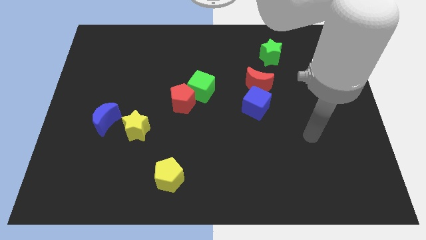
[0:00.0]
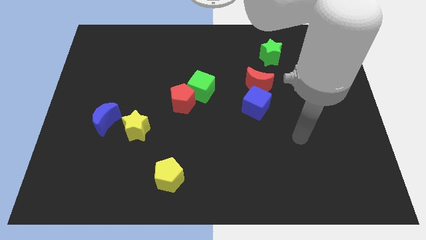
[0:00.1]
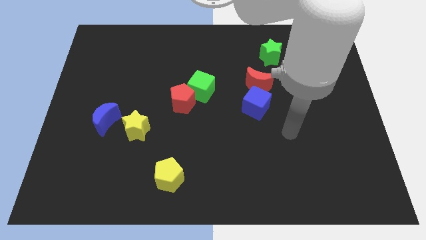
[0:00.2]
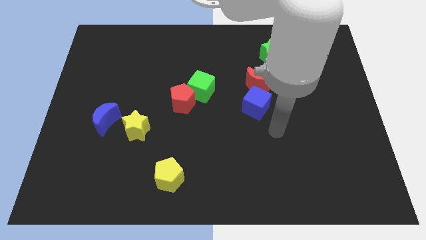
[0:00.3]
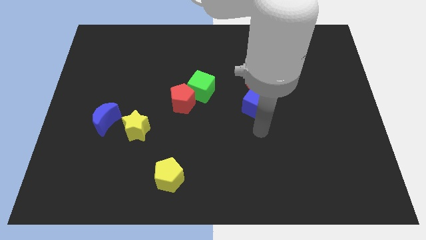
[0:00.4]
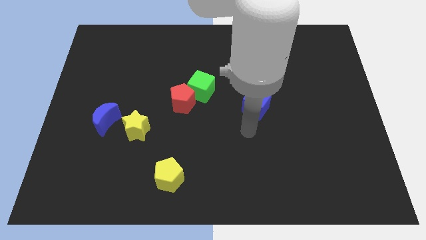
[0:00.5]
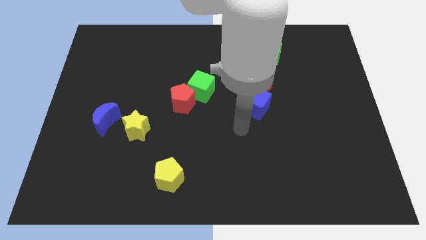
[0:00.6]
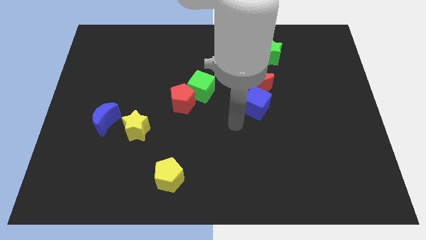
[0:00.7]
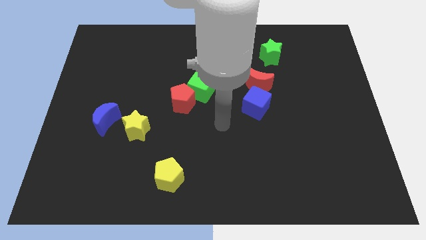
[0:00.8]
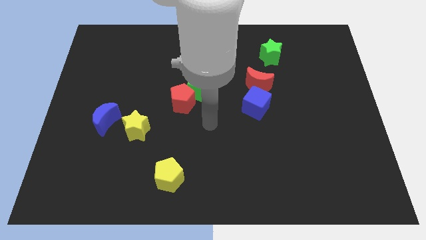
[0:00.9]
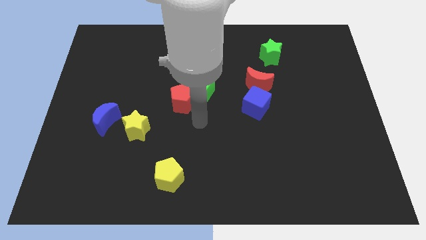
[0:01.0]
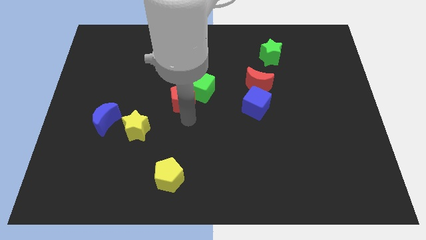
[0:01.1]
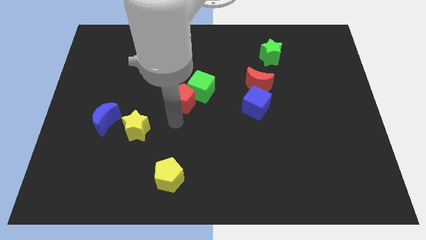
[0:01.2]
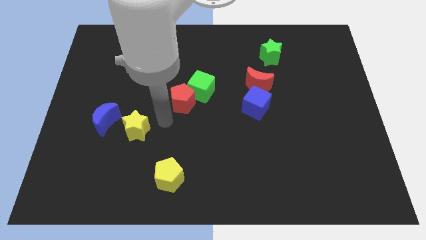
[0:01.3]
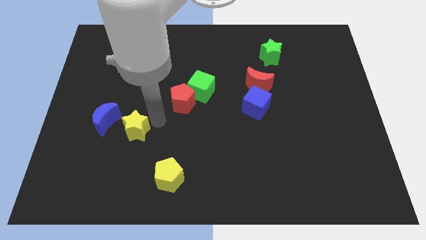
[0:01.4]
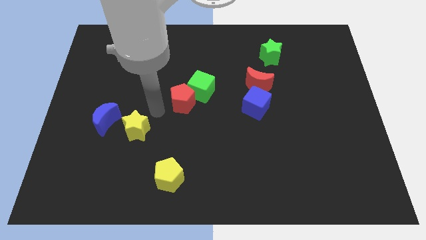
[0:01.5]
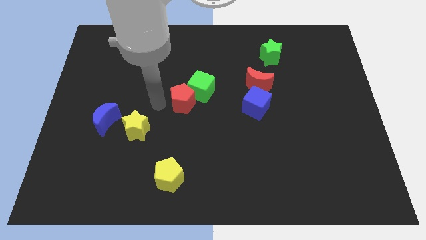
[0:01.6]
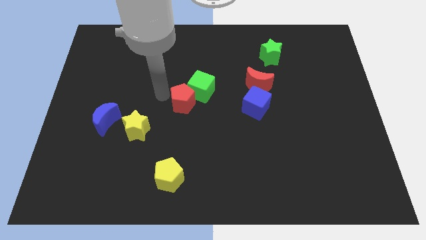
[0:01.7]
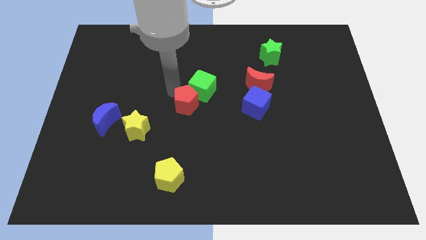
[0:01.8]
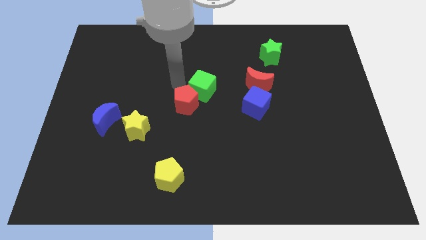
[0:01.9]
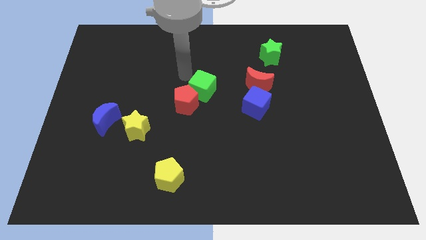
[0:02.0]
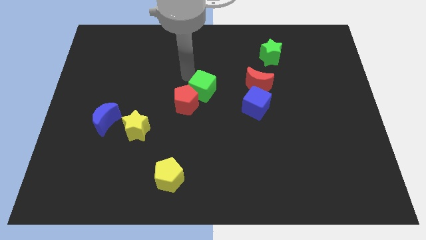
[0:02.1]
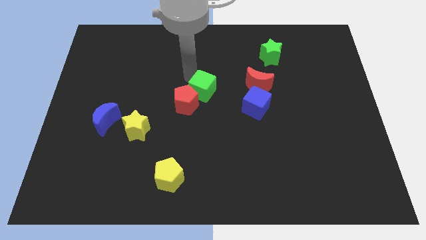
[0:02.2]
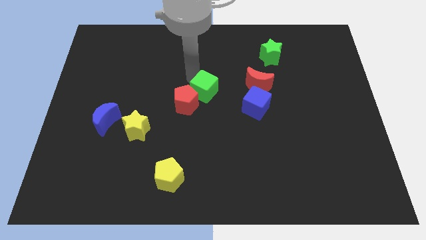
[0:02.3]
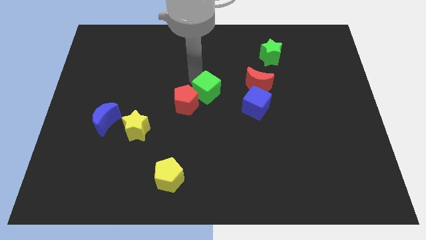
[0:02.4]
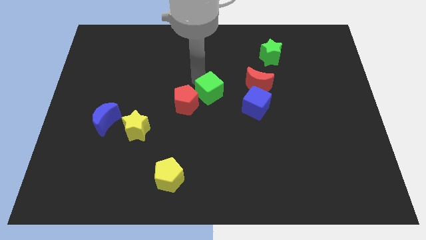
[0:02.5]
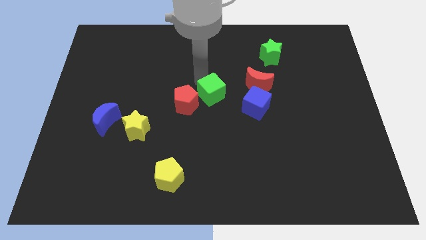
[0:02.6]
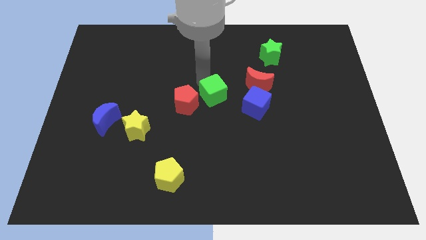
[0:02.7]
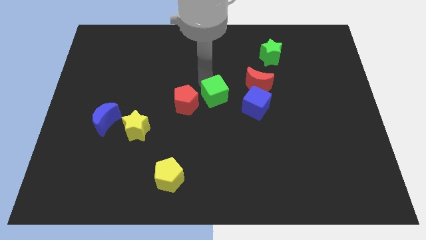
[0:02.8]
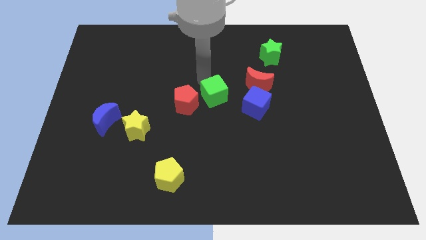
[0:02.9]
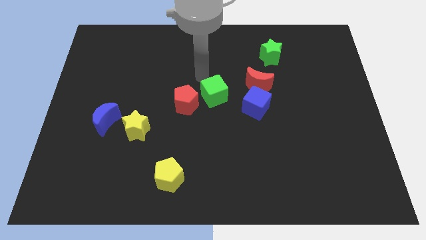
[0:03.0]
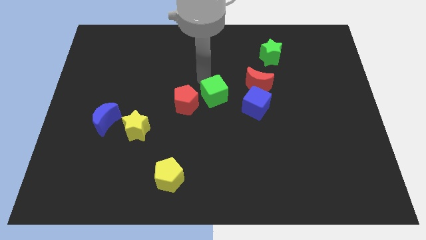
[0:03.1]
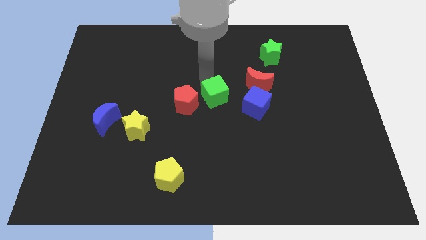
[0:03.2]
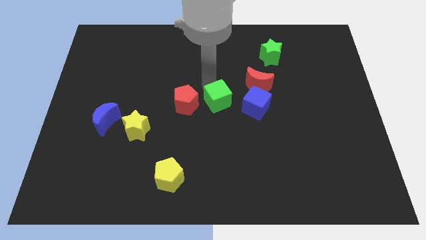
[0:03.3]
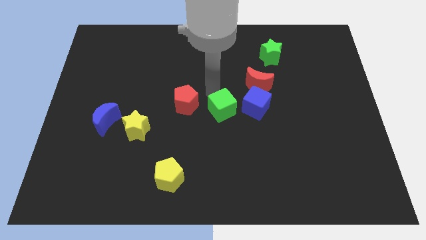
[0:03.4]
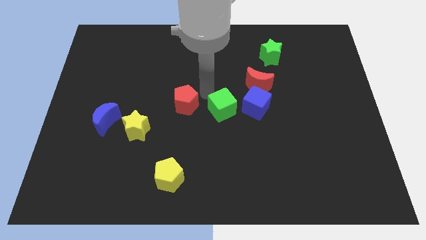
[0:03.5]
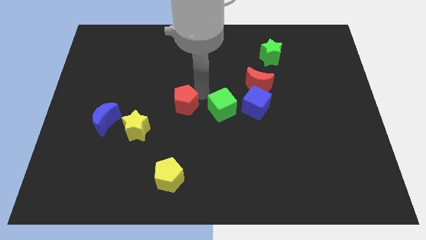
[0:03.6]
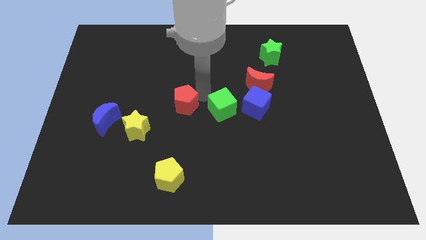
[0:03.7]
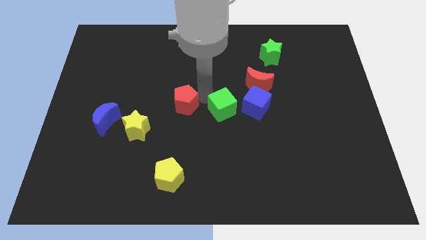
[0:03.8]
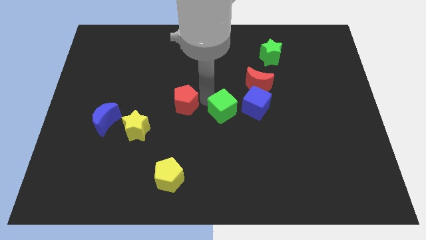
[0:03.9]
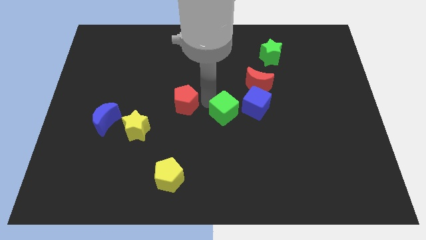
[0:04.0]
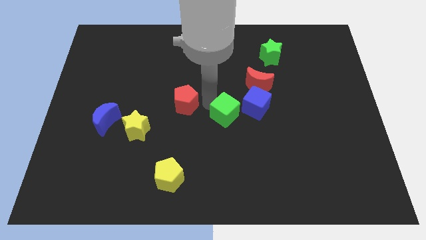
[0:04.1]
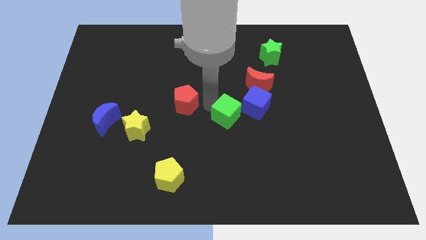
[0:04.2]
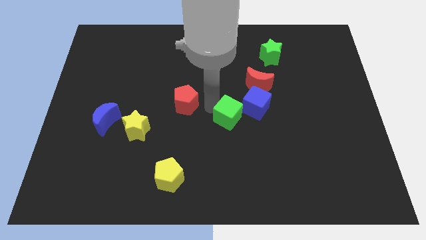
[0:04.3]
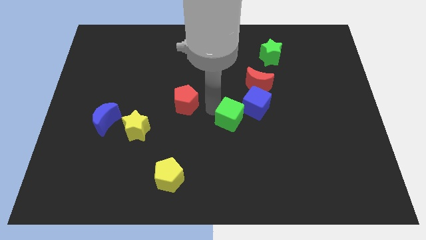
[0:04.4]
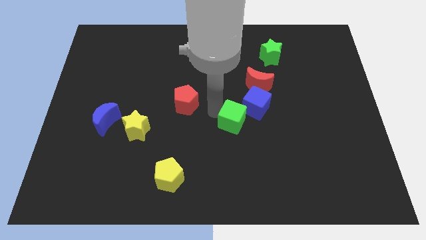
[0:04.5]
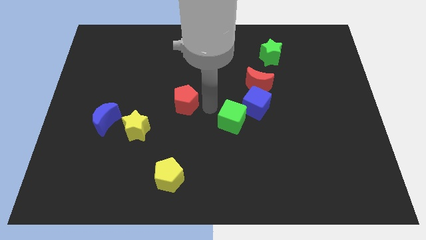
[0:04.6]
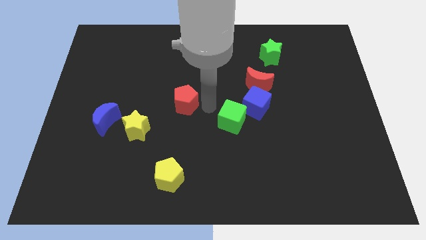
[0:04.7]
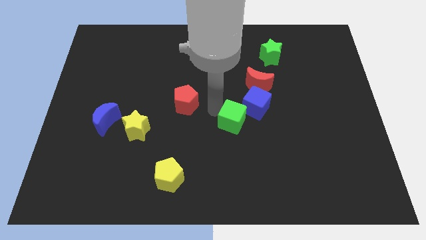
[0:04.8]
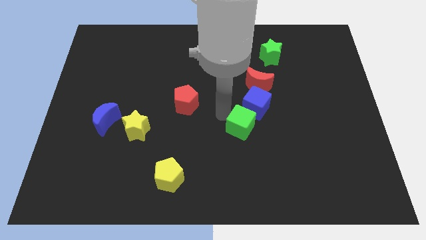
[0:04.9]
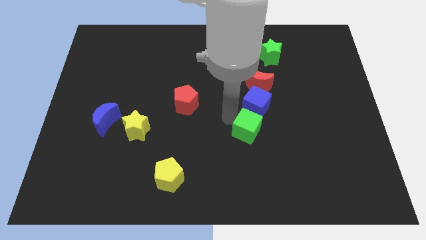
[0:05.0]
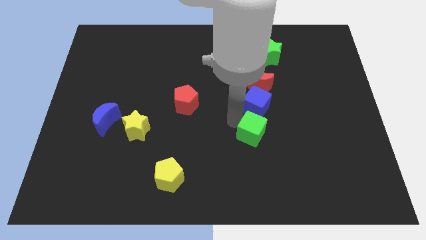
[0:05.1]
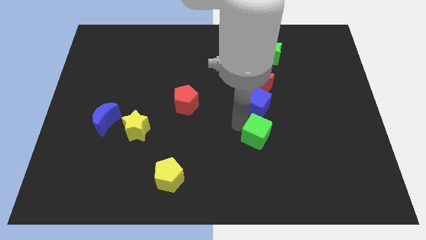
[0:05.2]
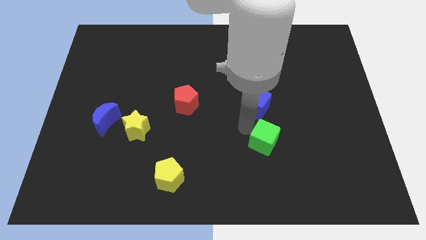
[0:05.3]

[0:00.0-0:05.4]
slide the green cube down and then to the right

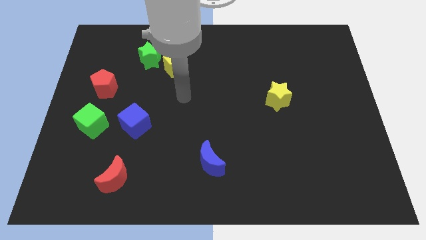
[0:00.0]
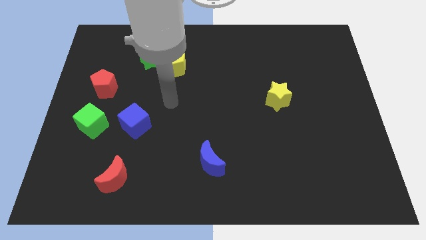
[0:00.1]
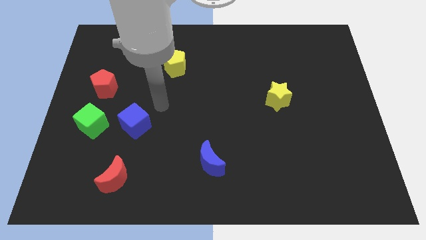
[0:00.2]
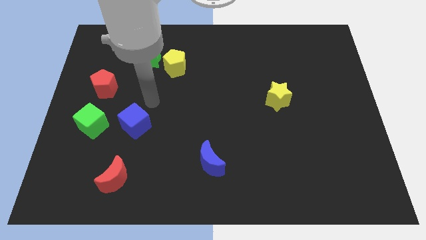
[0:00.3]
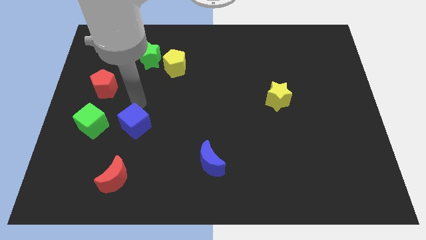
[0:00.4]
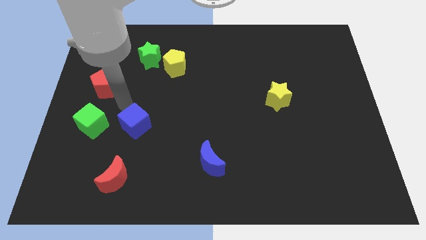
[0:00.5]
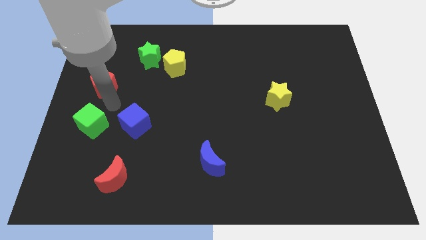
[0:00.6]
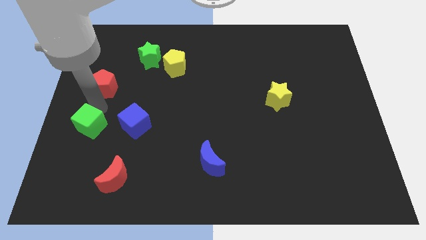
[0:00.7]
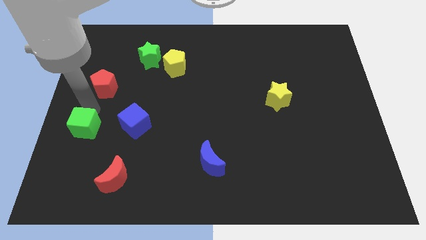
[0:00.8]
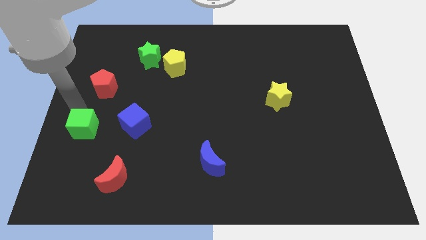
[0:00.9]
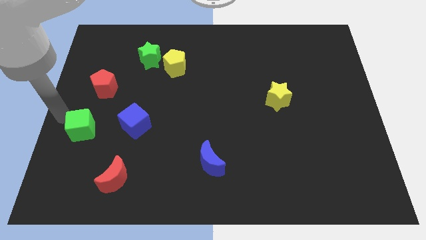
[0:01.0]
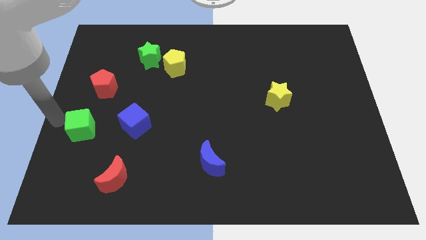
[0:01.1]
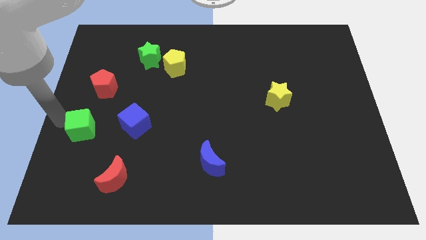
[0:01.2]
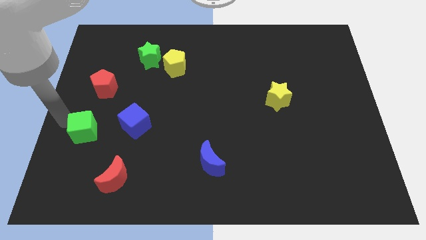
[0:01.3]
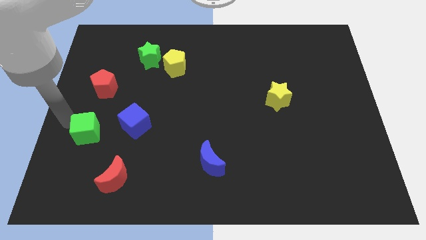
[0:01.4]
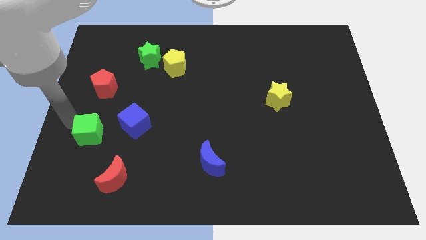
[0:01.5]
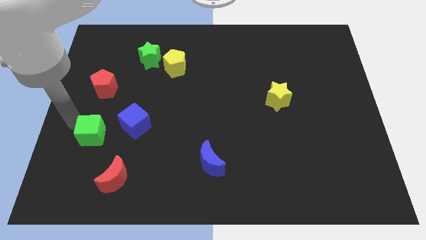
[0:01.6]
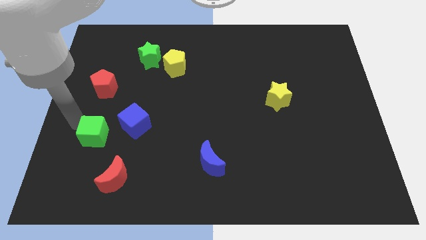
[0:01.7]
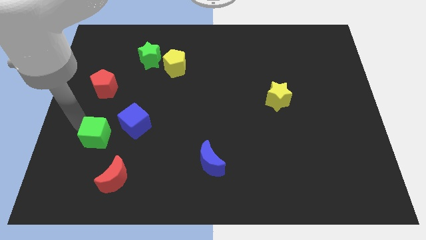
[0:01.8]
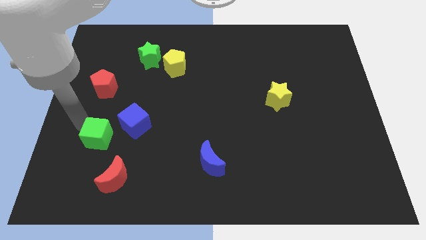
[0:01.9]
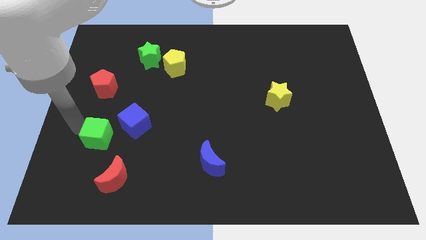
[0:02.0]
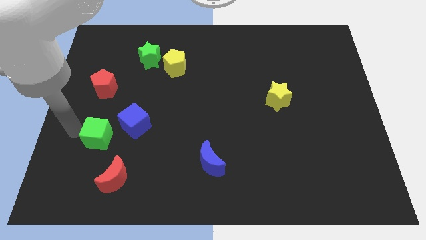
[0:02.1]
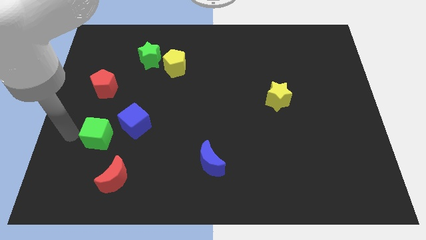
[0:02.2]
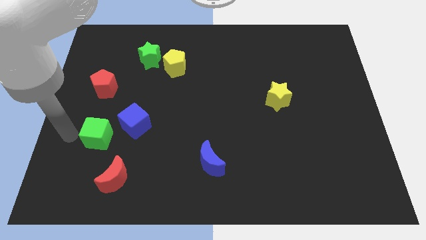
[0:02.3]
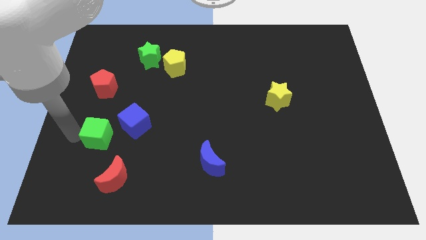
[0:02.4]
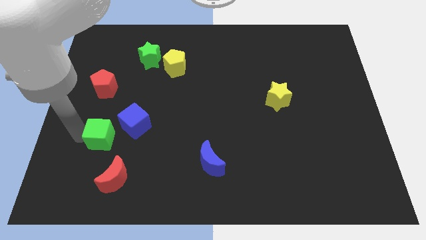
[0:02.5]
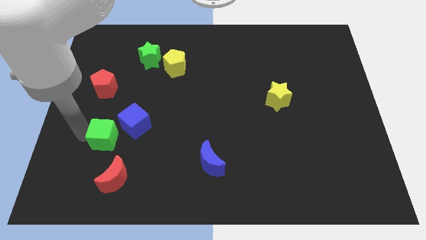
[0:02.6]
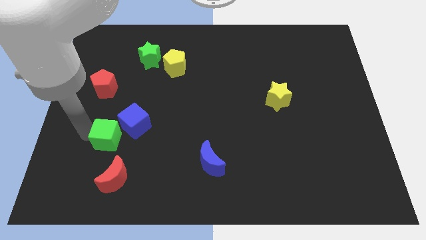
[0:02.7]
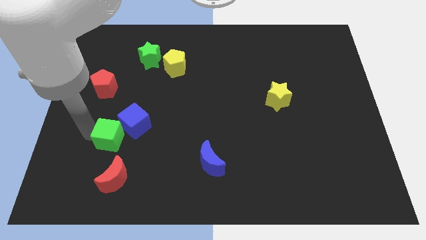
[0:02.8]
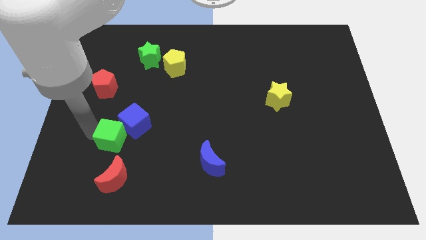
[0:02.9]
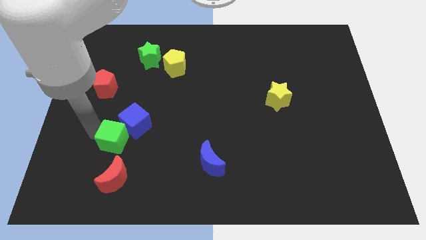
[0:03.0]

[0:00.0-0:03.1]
slide the green cube a bit downwards and right diagonally
